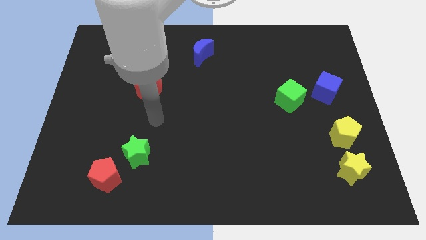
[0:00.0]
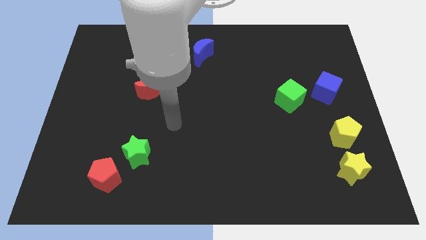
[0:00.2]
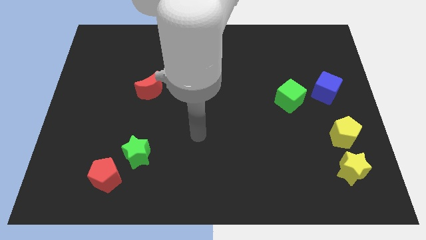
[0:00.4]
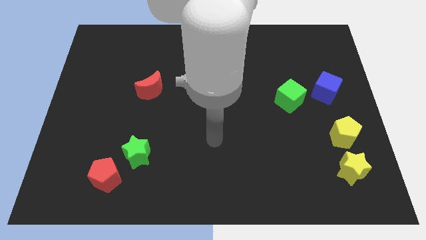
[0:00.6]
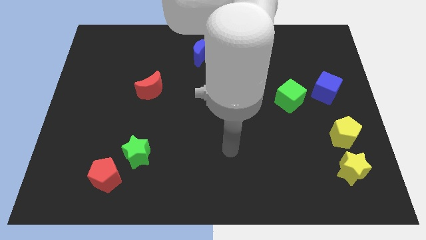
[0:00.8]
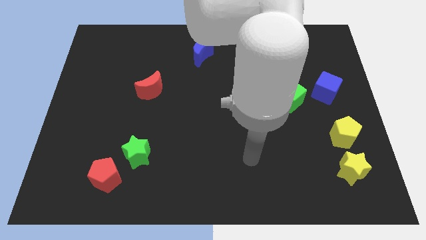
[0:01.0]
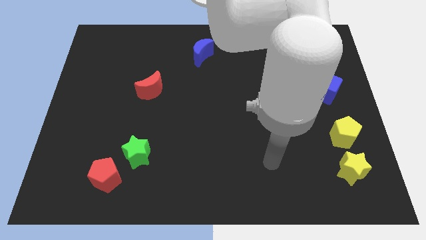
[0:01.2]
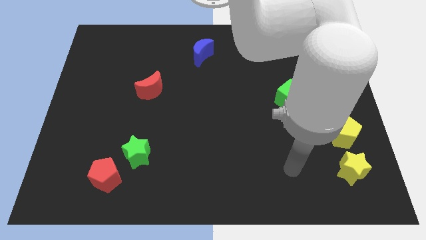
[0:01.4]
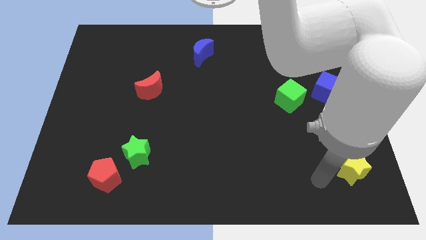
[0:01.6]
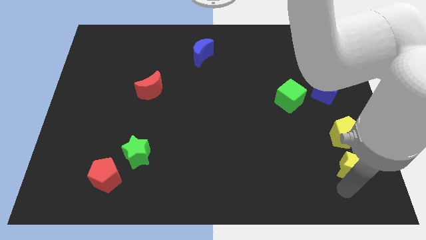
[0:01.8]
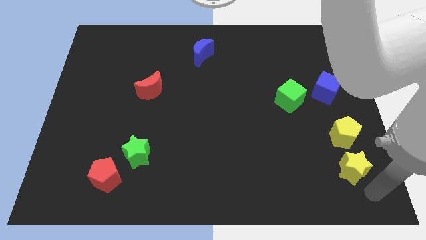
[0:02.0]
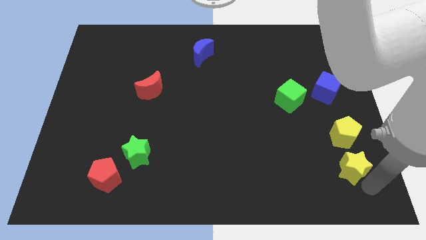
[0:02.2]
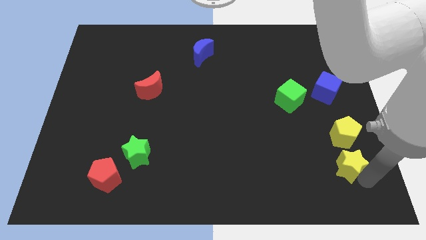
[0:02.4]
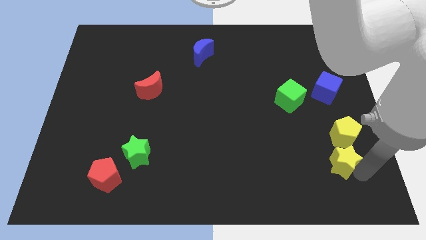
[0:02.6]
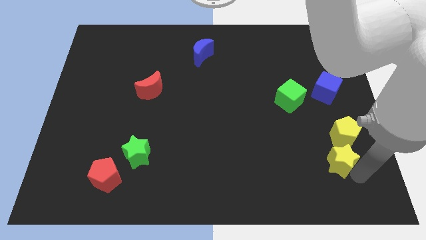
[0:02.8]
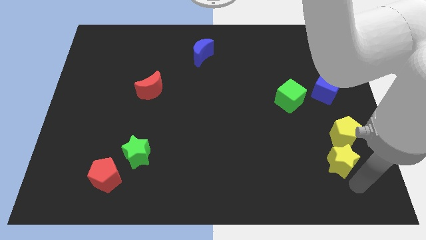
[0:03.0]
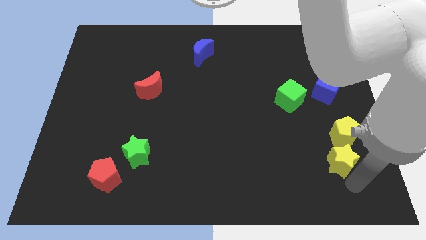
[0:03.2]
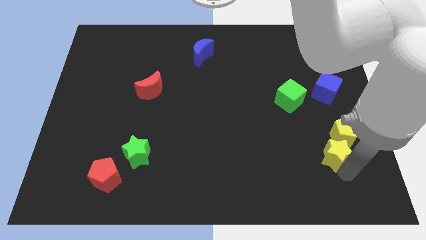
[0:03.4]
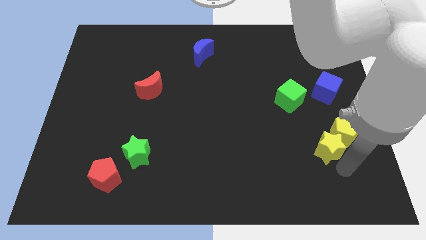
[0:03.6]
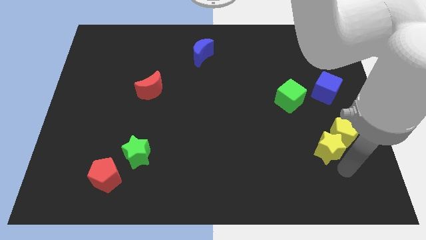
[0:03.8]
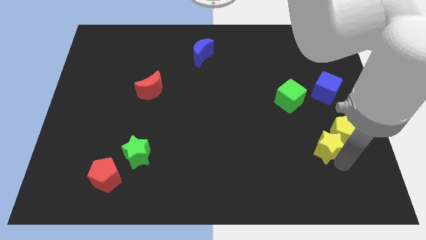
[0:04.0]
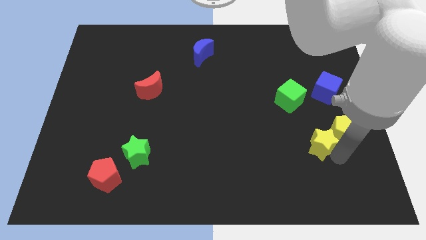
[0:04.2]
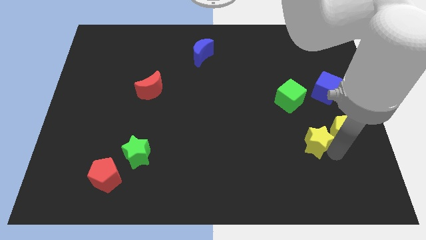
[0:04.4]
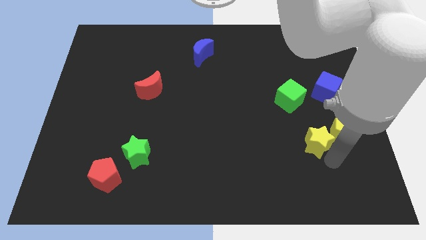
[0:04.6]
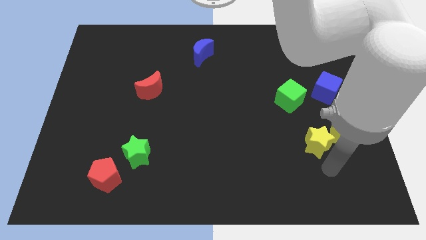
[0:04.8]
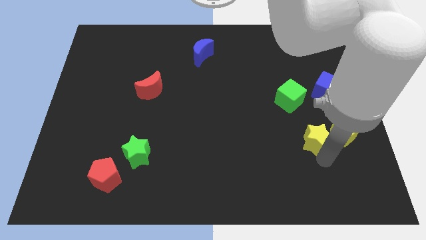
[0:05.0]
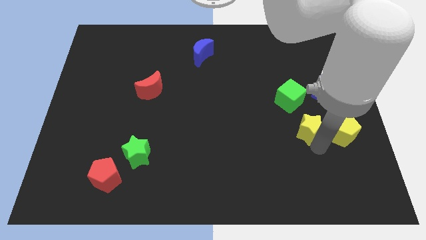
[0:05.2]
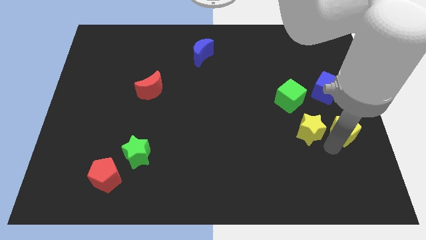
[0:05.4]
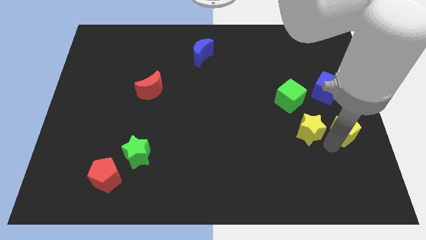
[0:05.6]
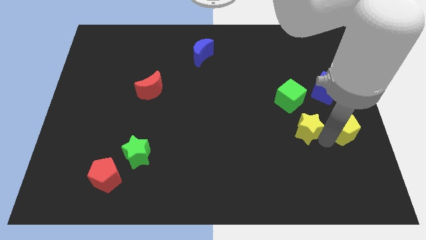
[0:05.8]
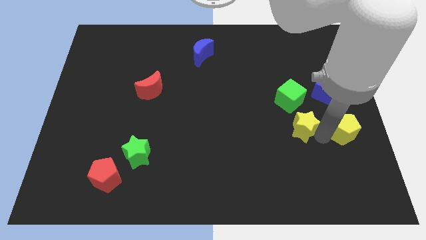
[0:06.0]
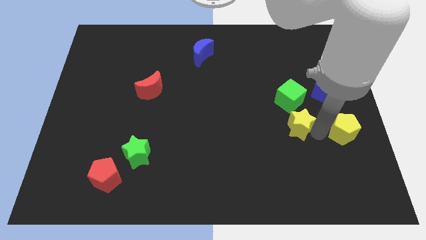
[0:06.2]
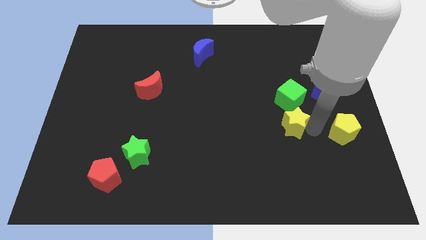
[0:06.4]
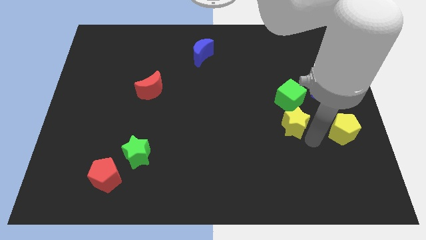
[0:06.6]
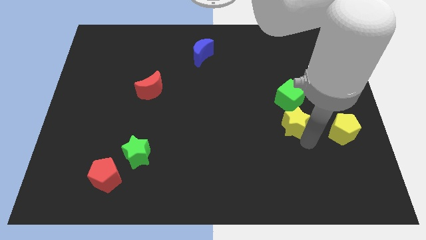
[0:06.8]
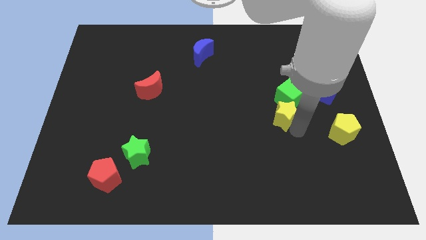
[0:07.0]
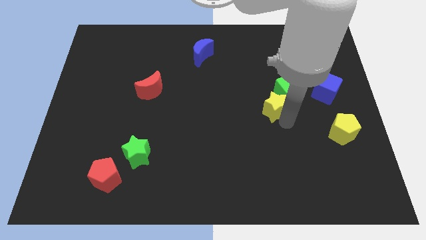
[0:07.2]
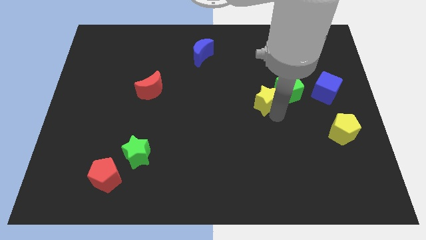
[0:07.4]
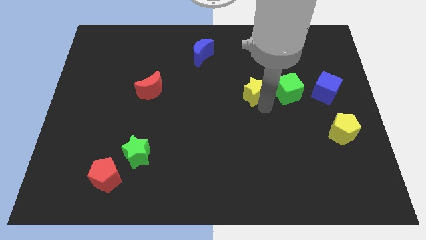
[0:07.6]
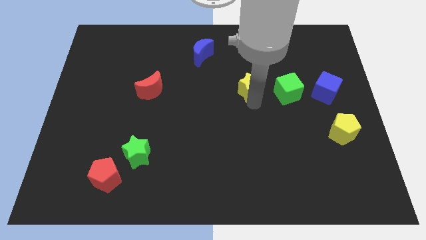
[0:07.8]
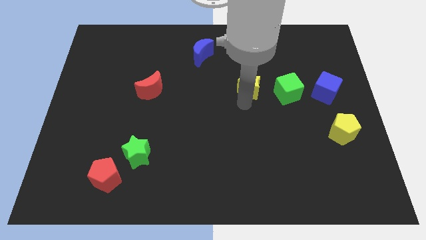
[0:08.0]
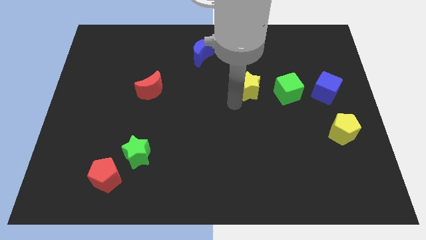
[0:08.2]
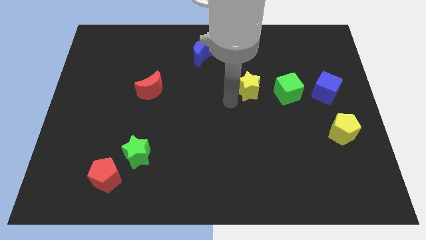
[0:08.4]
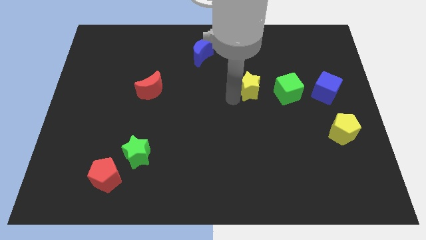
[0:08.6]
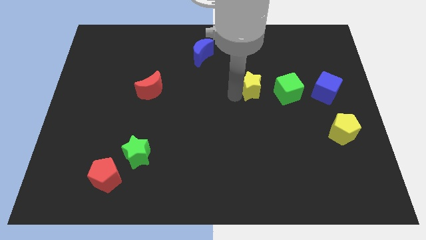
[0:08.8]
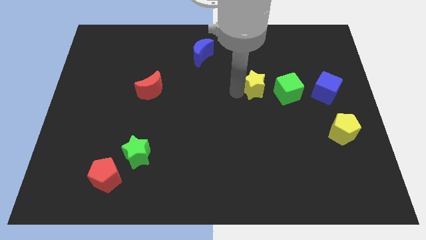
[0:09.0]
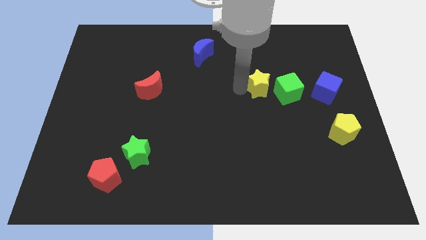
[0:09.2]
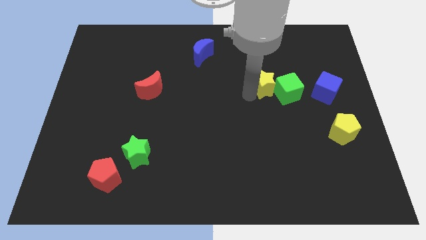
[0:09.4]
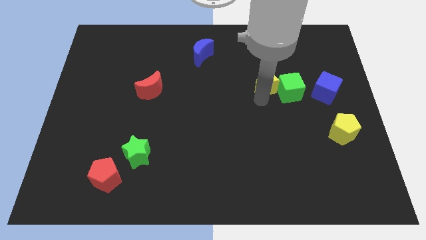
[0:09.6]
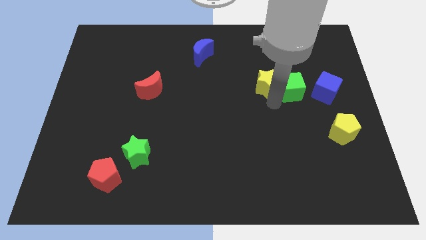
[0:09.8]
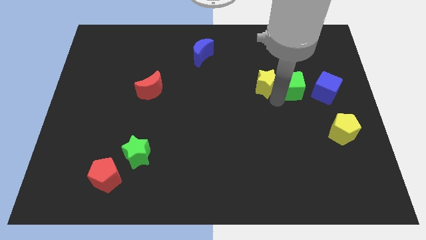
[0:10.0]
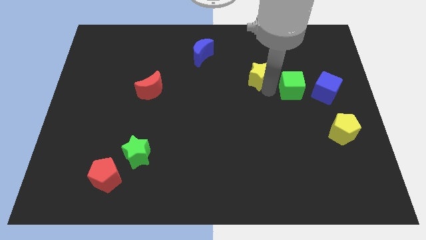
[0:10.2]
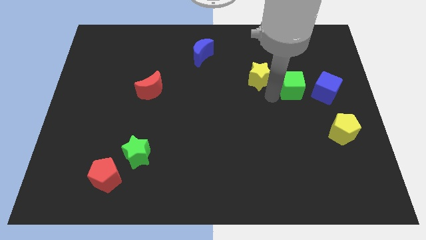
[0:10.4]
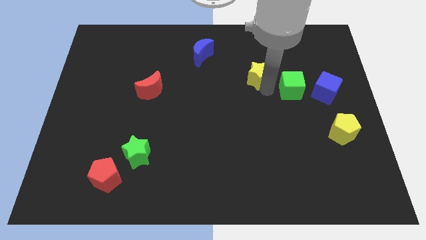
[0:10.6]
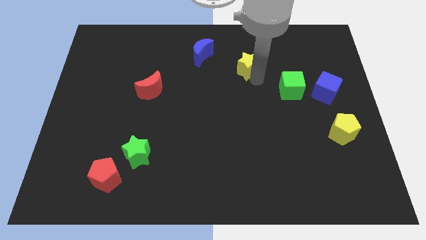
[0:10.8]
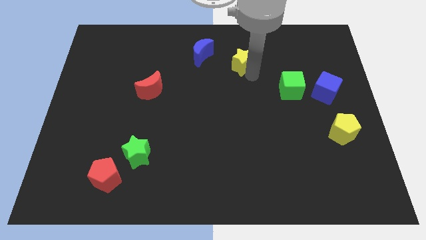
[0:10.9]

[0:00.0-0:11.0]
slide the yellow star to the right of the blue moon
